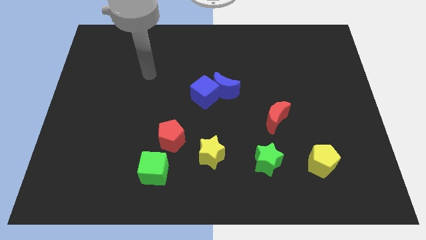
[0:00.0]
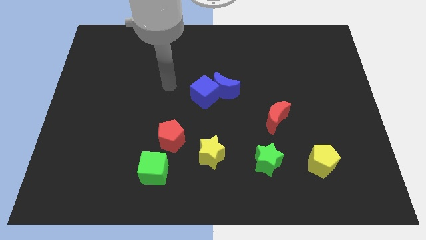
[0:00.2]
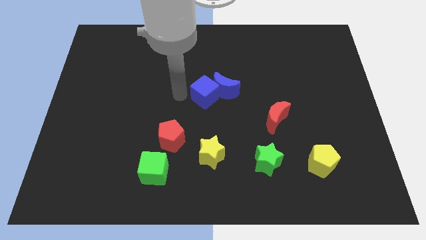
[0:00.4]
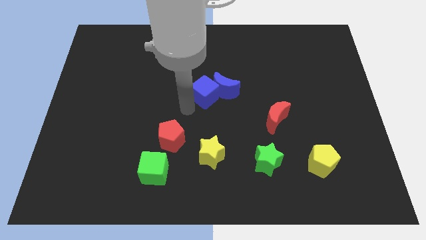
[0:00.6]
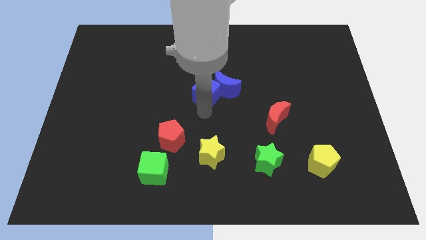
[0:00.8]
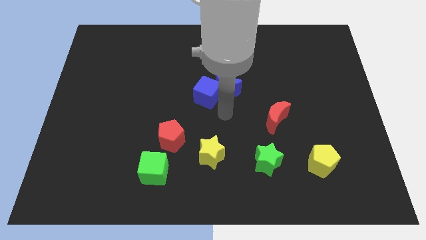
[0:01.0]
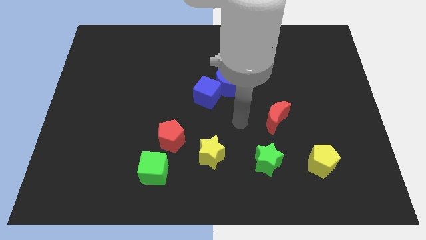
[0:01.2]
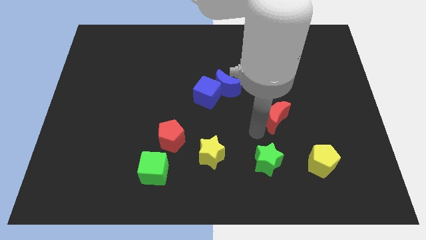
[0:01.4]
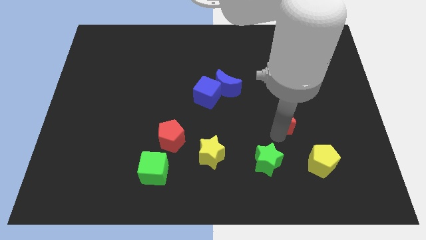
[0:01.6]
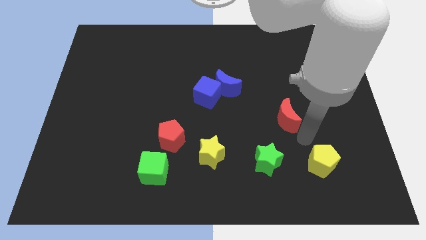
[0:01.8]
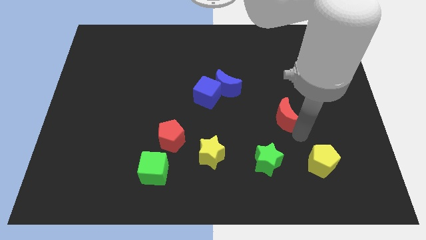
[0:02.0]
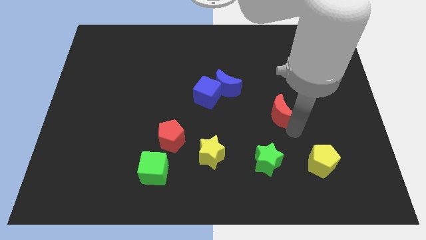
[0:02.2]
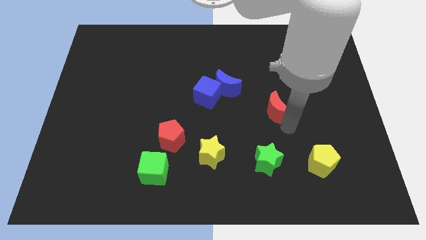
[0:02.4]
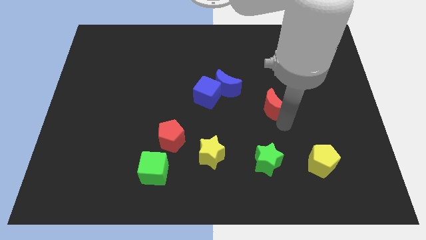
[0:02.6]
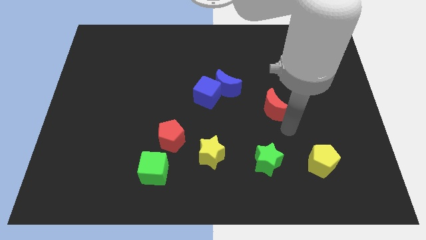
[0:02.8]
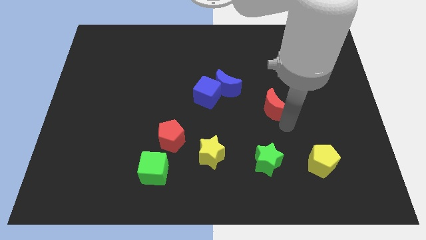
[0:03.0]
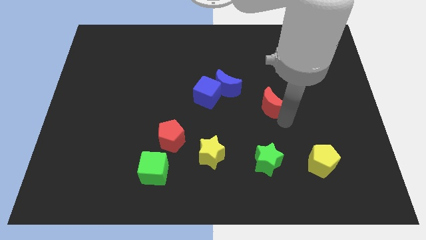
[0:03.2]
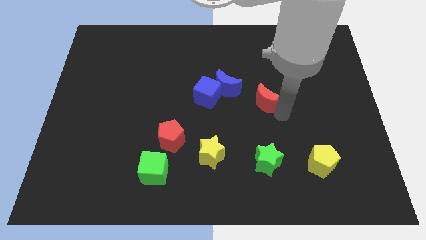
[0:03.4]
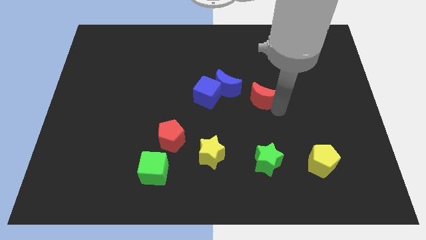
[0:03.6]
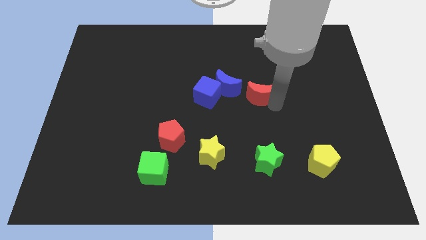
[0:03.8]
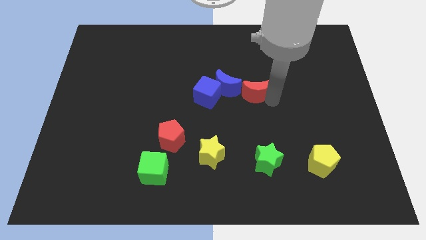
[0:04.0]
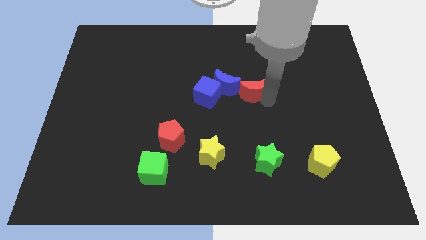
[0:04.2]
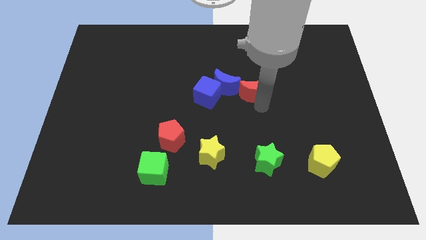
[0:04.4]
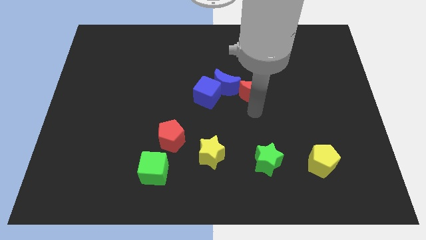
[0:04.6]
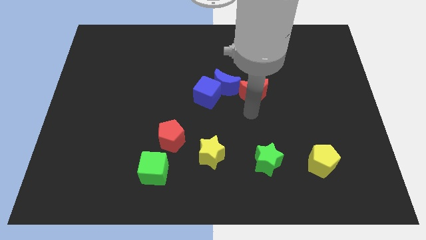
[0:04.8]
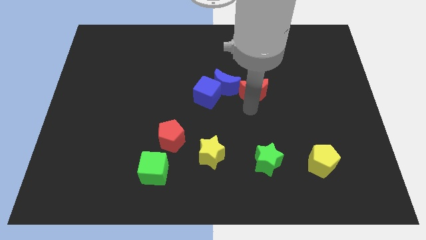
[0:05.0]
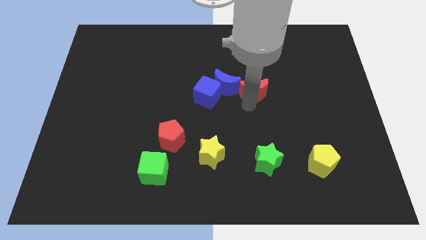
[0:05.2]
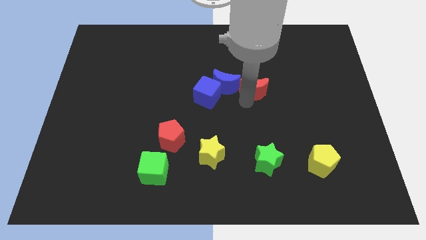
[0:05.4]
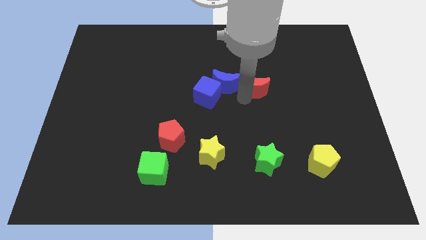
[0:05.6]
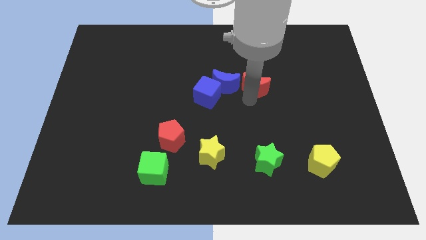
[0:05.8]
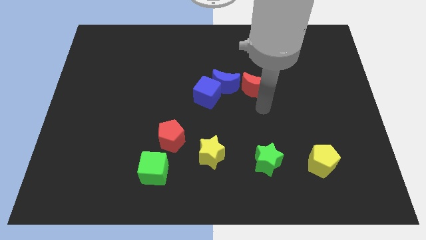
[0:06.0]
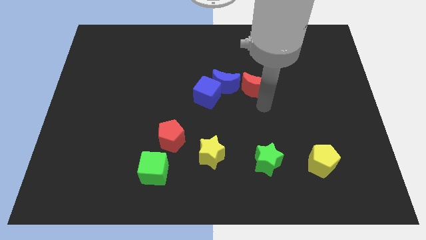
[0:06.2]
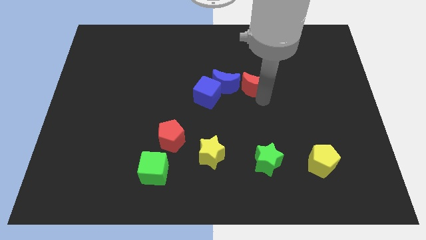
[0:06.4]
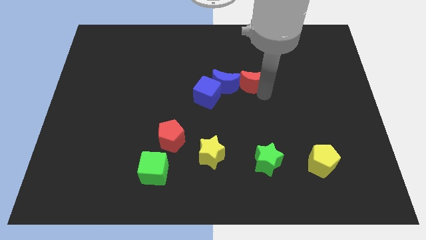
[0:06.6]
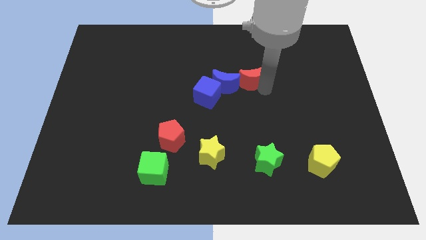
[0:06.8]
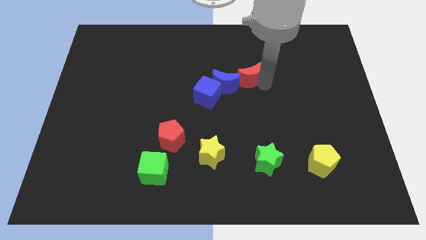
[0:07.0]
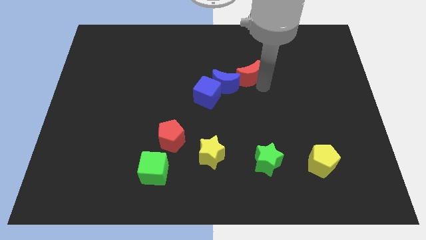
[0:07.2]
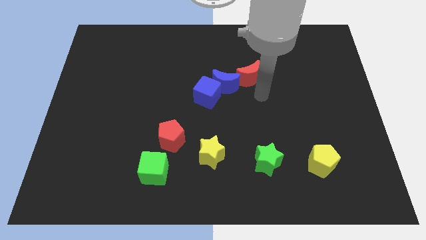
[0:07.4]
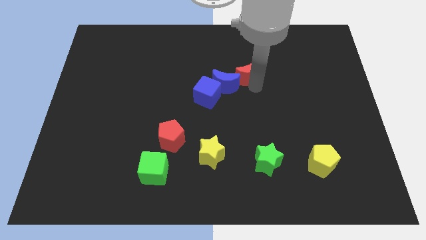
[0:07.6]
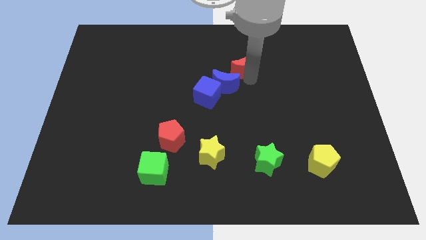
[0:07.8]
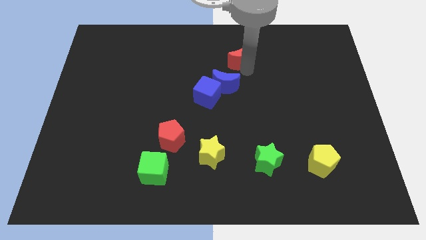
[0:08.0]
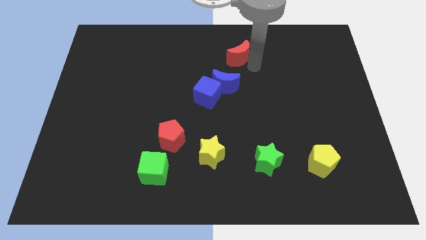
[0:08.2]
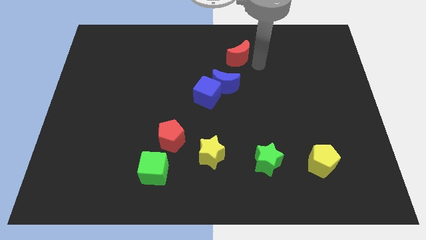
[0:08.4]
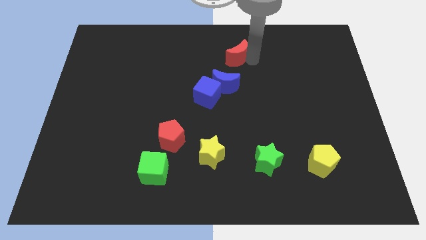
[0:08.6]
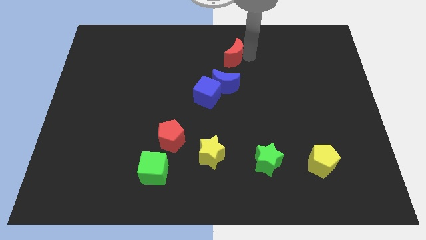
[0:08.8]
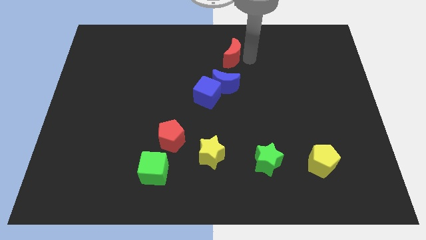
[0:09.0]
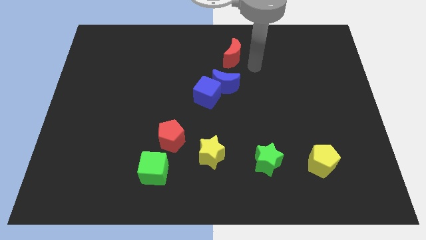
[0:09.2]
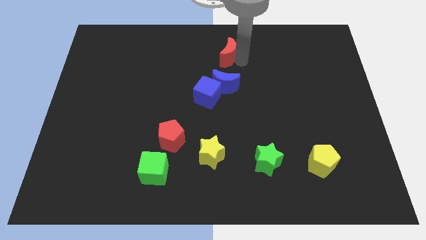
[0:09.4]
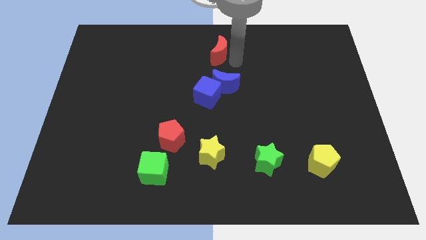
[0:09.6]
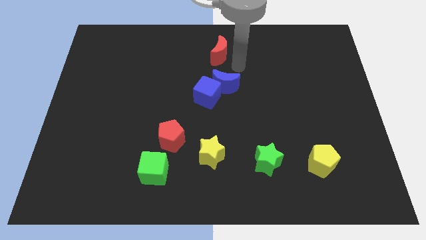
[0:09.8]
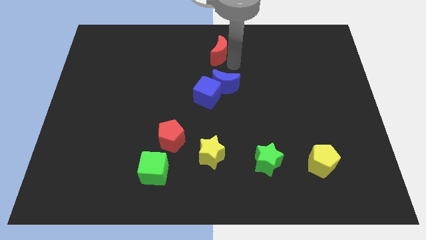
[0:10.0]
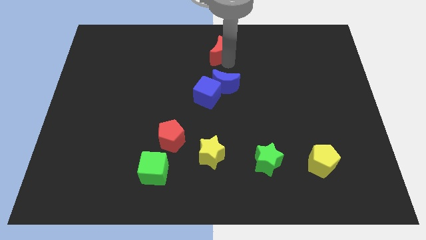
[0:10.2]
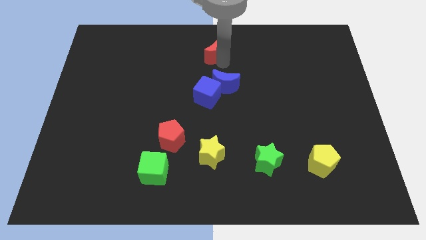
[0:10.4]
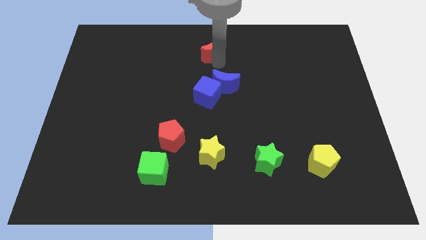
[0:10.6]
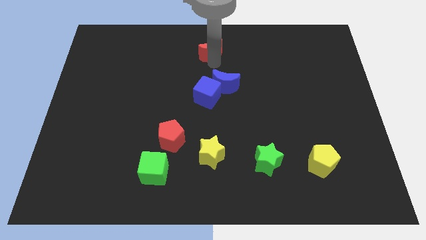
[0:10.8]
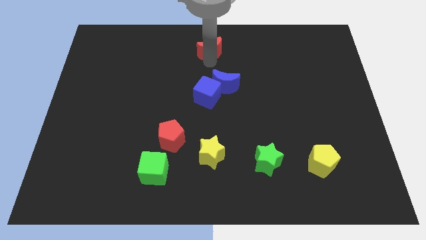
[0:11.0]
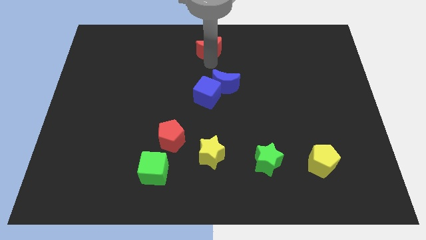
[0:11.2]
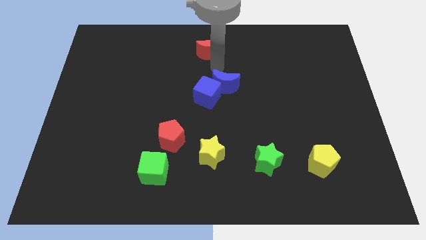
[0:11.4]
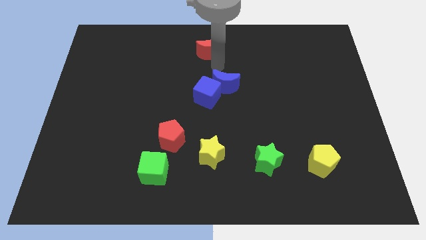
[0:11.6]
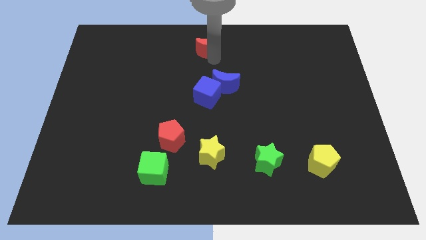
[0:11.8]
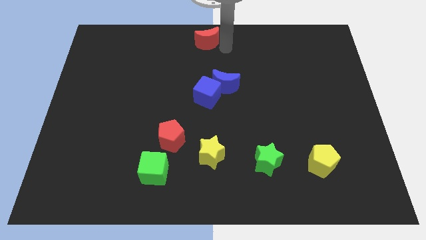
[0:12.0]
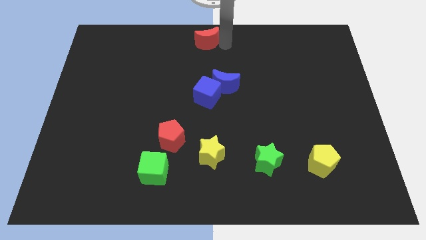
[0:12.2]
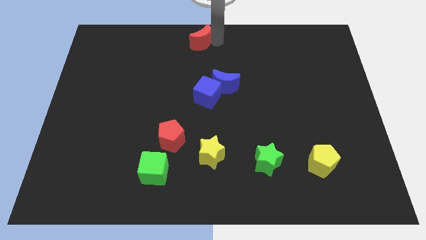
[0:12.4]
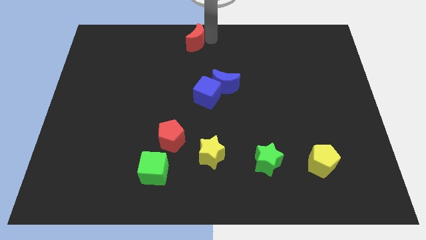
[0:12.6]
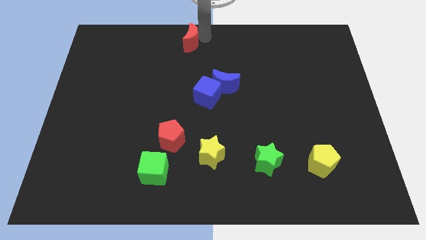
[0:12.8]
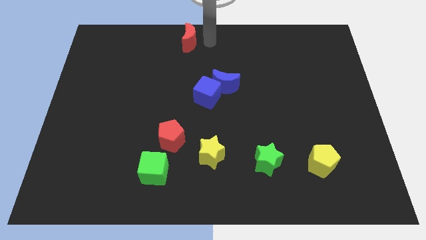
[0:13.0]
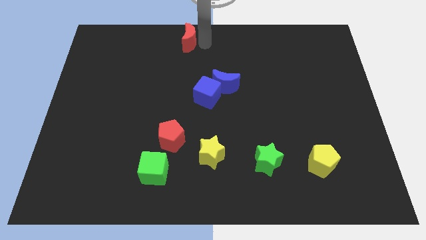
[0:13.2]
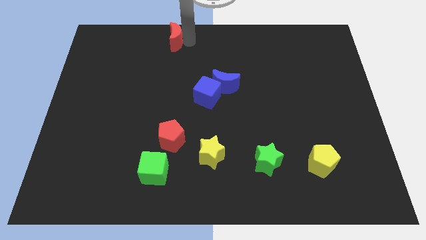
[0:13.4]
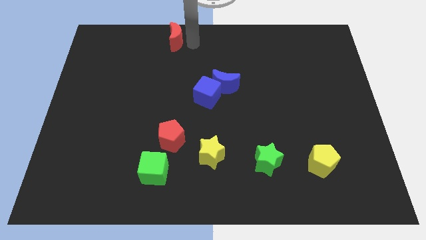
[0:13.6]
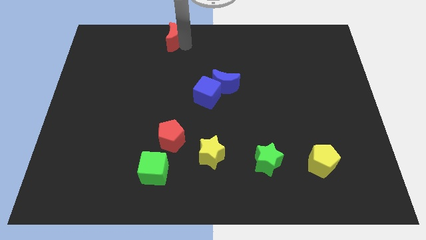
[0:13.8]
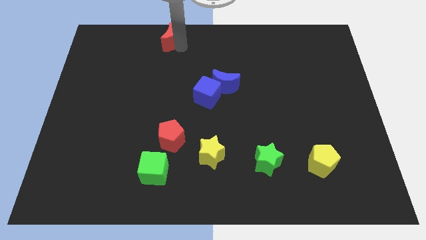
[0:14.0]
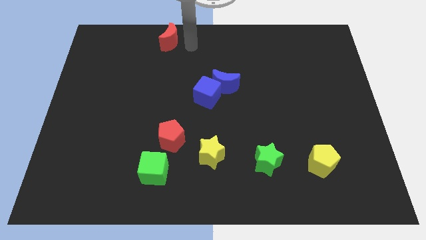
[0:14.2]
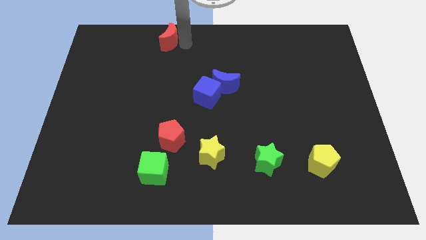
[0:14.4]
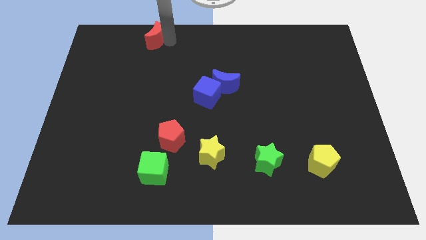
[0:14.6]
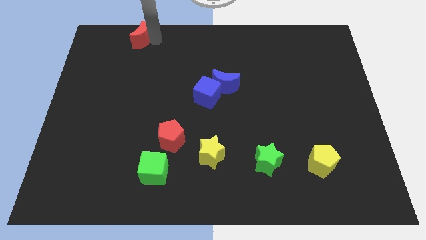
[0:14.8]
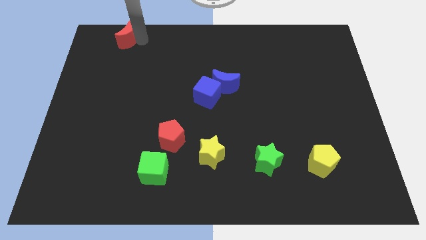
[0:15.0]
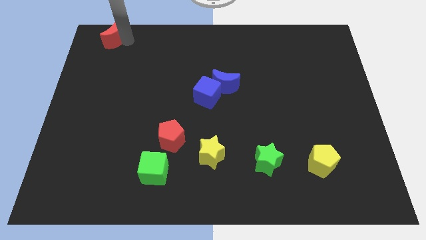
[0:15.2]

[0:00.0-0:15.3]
push the red moon to the top left corner
